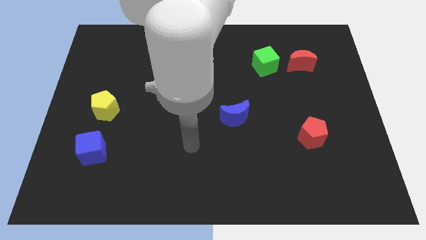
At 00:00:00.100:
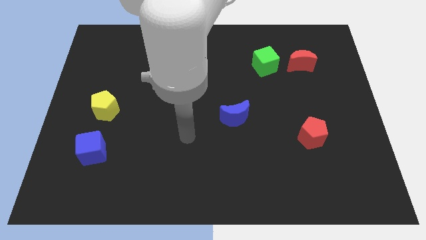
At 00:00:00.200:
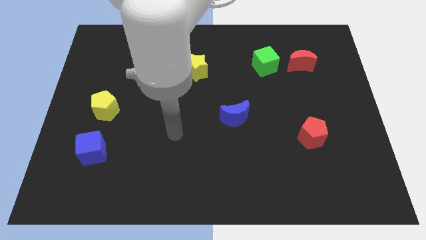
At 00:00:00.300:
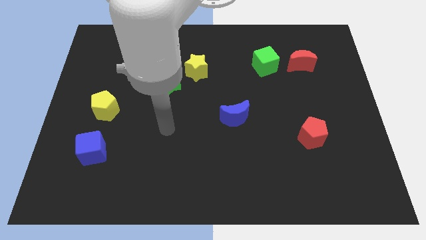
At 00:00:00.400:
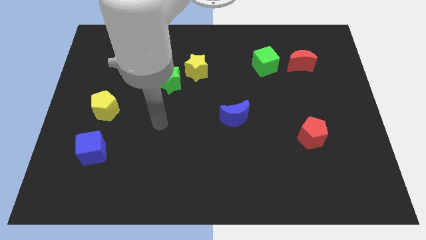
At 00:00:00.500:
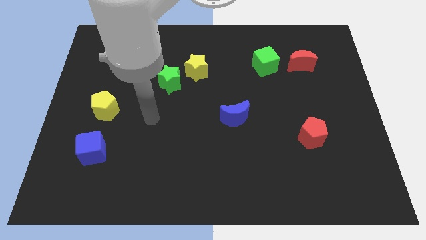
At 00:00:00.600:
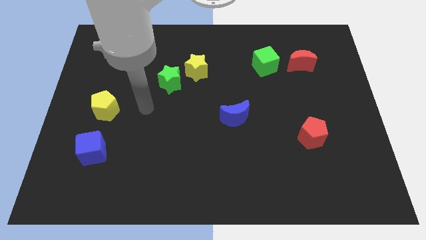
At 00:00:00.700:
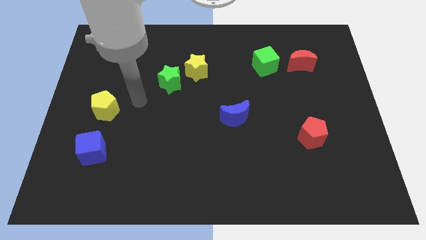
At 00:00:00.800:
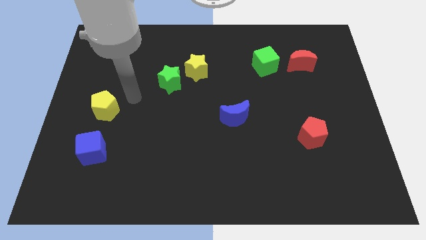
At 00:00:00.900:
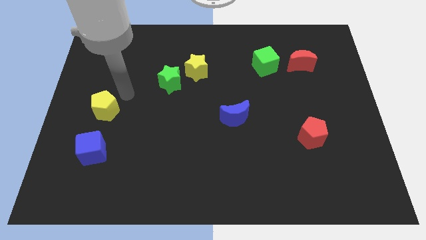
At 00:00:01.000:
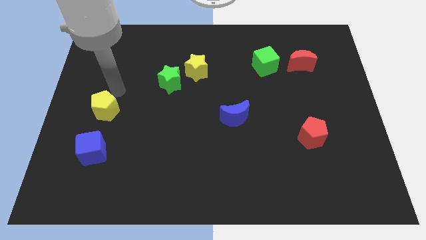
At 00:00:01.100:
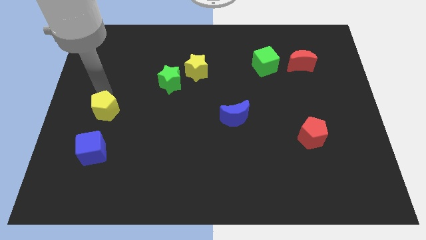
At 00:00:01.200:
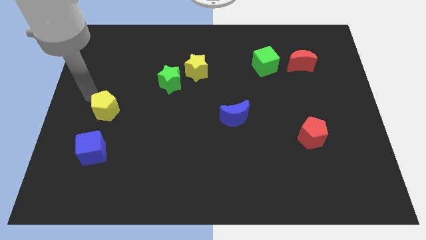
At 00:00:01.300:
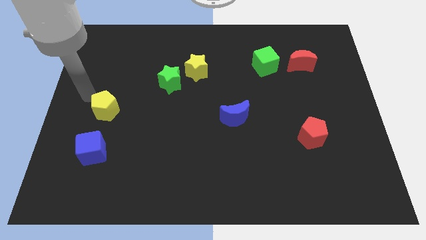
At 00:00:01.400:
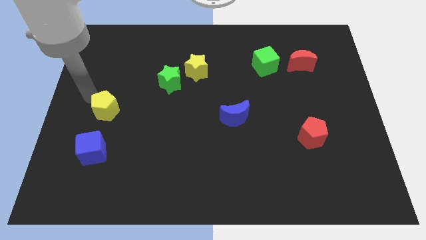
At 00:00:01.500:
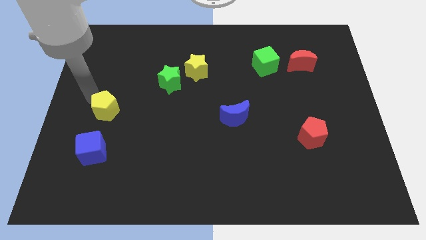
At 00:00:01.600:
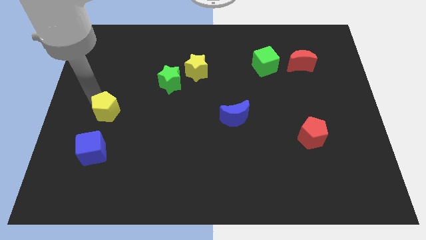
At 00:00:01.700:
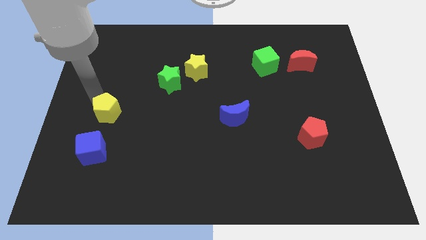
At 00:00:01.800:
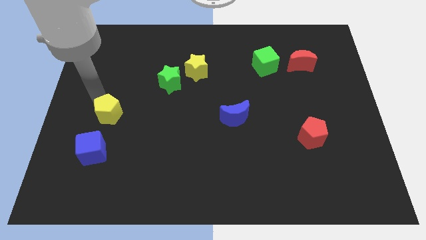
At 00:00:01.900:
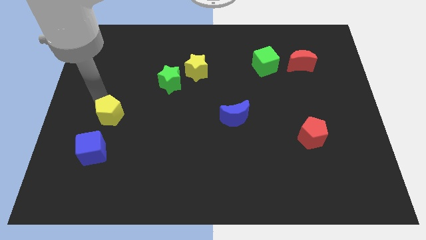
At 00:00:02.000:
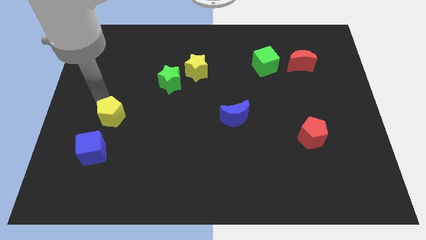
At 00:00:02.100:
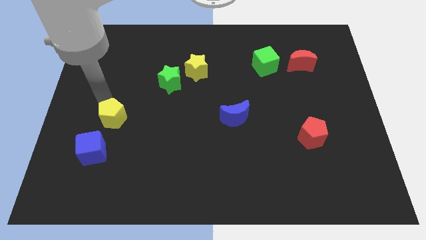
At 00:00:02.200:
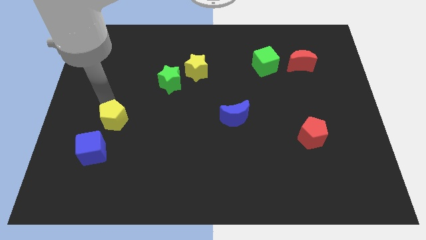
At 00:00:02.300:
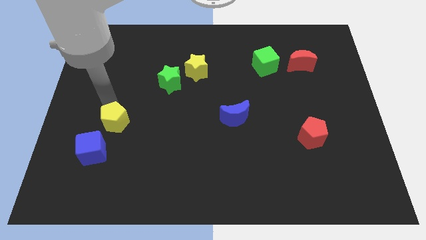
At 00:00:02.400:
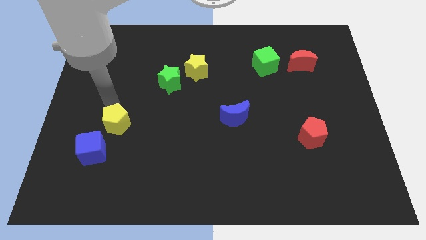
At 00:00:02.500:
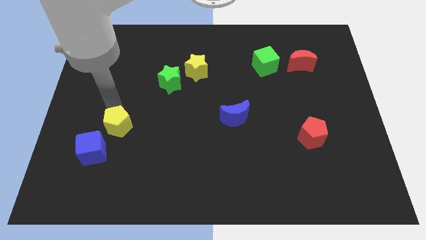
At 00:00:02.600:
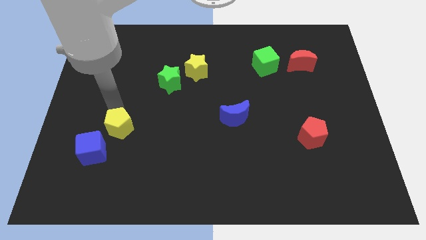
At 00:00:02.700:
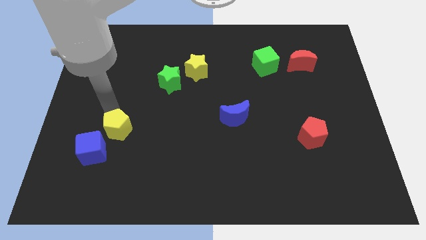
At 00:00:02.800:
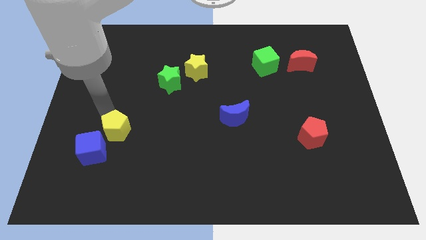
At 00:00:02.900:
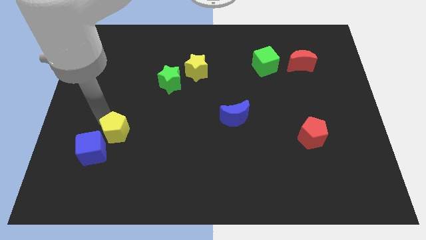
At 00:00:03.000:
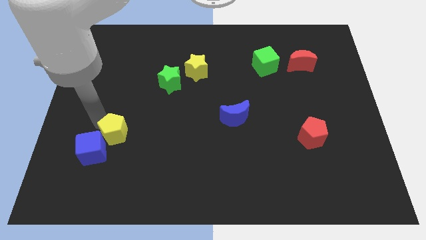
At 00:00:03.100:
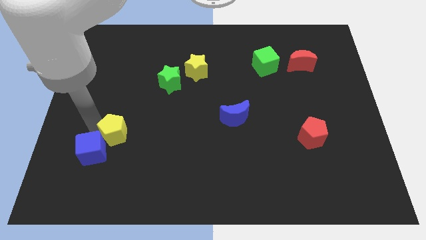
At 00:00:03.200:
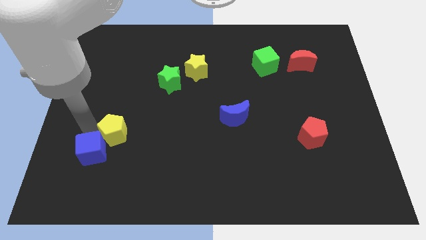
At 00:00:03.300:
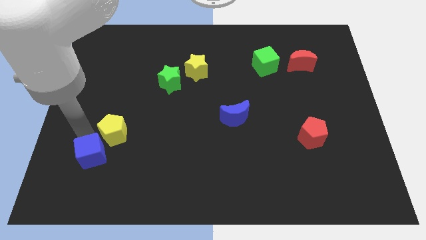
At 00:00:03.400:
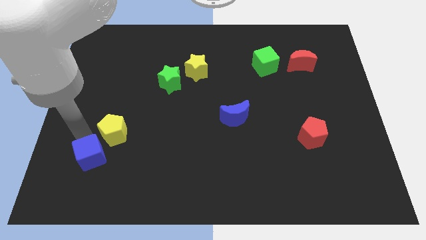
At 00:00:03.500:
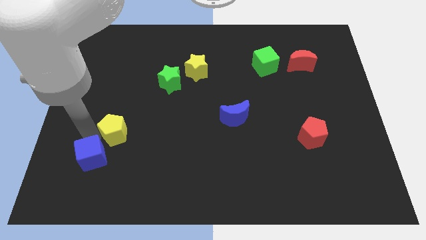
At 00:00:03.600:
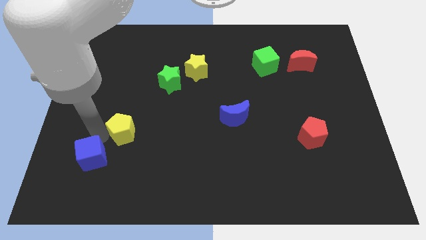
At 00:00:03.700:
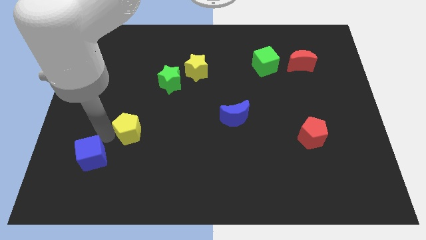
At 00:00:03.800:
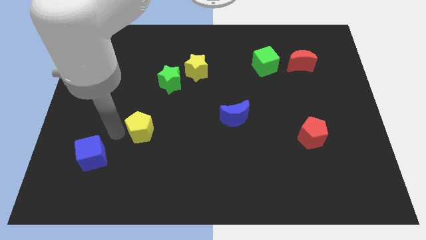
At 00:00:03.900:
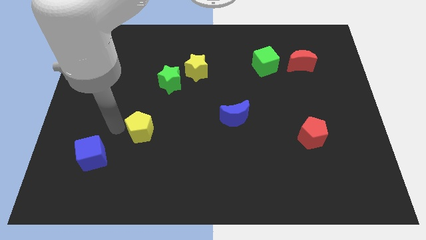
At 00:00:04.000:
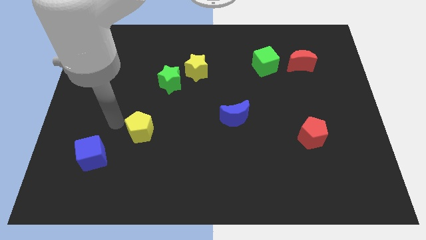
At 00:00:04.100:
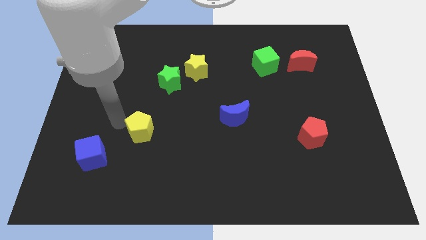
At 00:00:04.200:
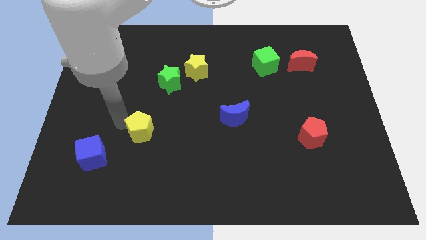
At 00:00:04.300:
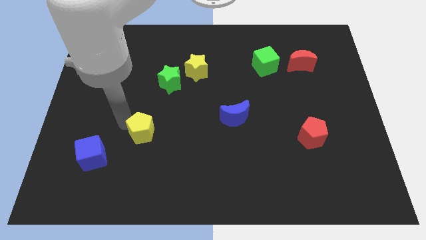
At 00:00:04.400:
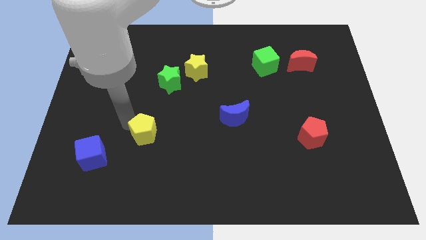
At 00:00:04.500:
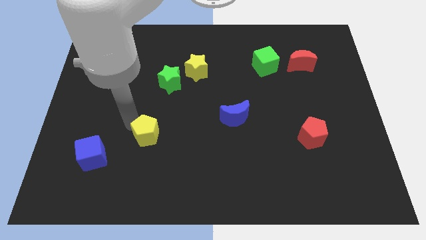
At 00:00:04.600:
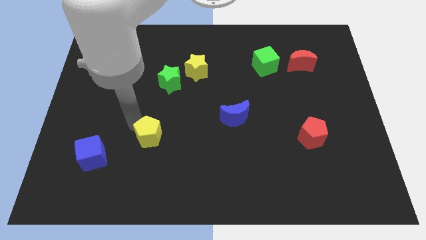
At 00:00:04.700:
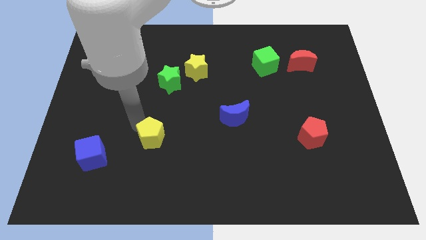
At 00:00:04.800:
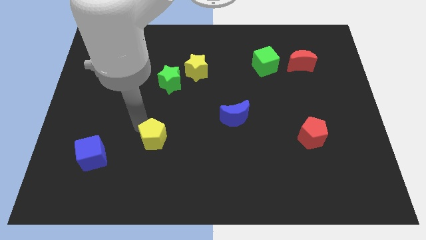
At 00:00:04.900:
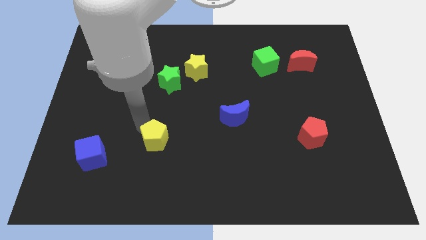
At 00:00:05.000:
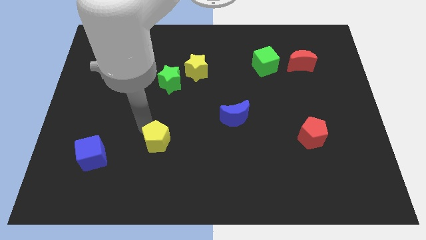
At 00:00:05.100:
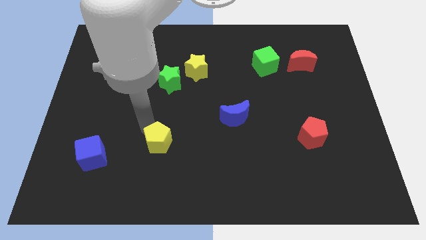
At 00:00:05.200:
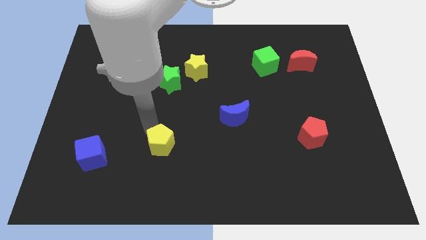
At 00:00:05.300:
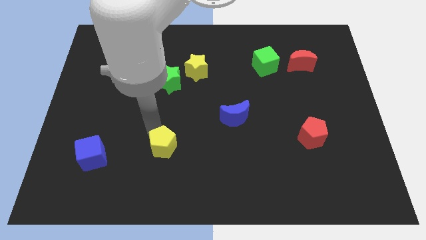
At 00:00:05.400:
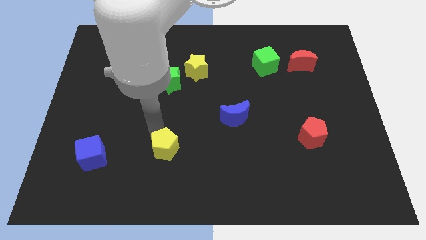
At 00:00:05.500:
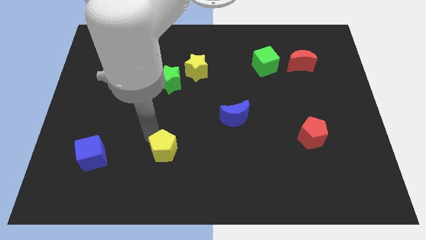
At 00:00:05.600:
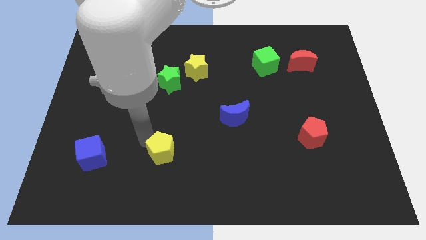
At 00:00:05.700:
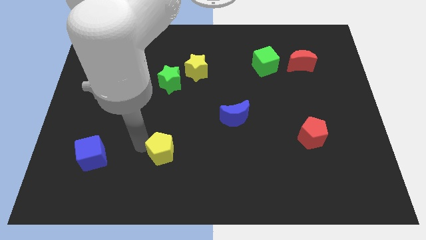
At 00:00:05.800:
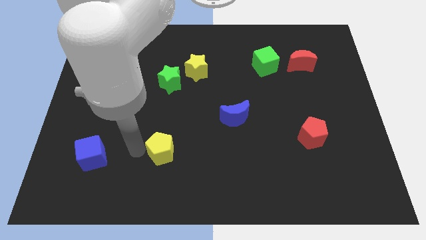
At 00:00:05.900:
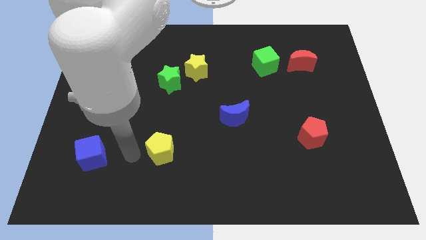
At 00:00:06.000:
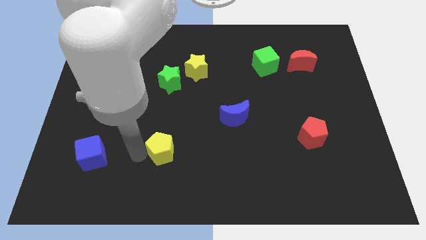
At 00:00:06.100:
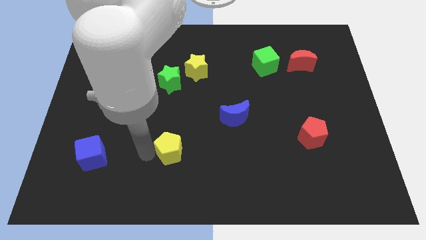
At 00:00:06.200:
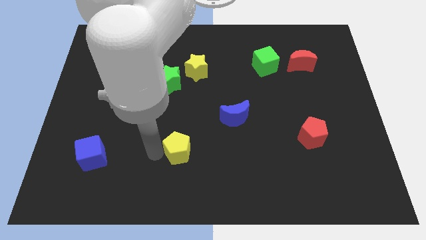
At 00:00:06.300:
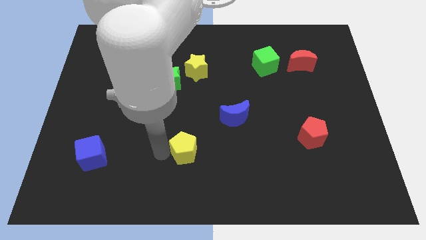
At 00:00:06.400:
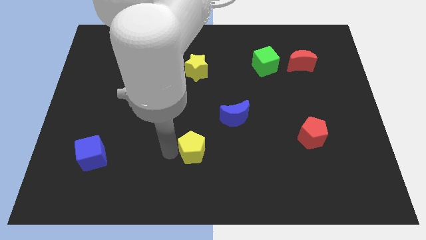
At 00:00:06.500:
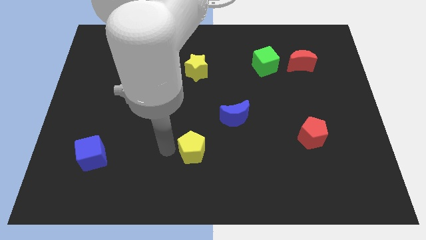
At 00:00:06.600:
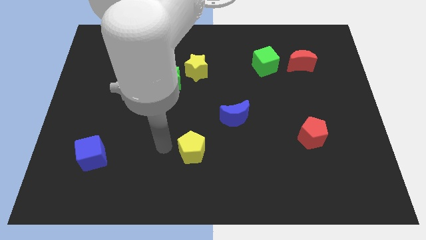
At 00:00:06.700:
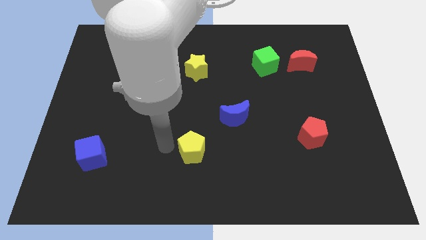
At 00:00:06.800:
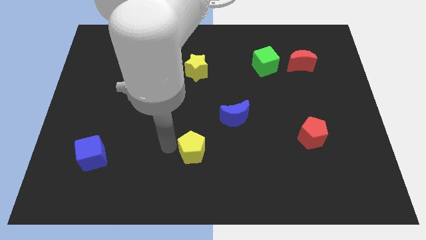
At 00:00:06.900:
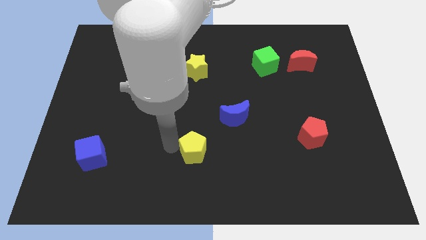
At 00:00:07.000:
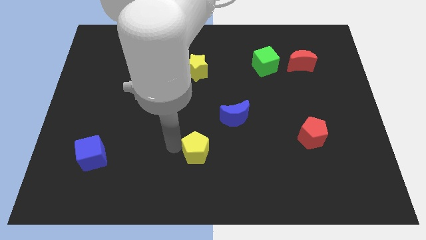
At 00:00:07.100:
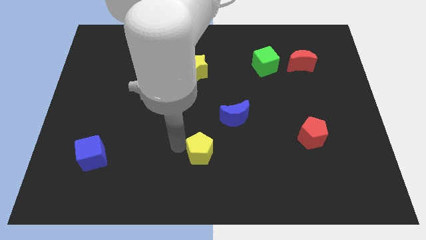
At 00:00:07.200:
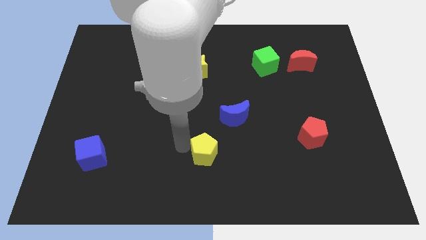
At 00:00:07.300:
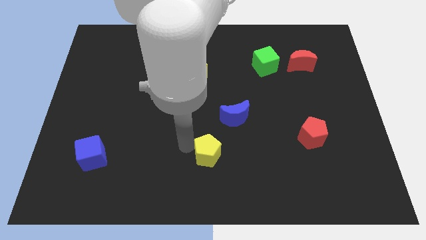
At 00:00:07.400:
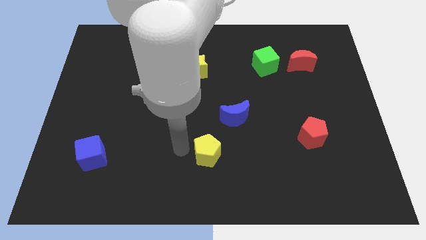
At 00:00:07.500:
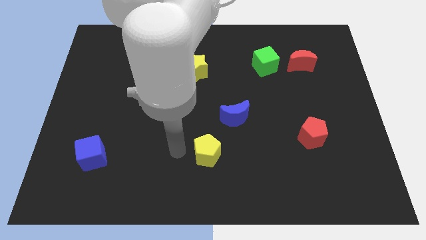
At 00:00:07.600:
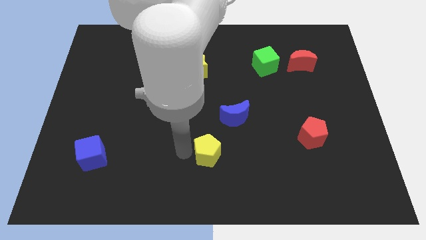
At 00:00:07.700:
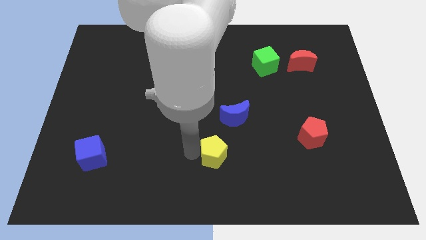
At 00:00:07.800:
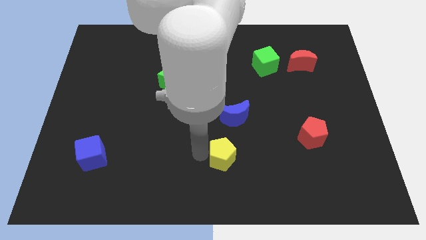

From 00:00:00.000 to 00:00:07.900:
move the yellow pentagon to the bottom side of the blue moon
